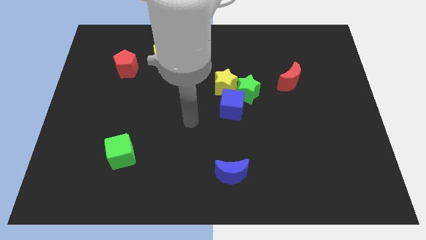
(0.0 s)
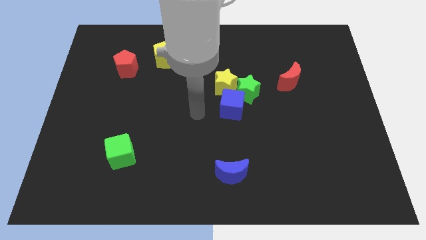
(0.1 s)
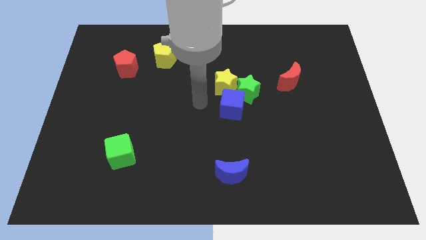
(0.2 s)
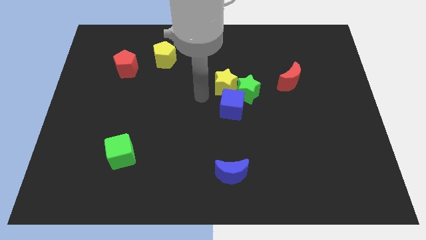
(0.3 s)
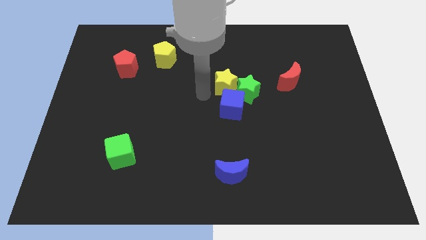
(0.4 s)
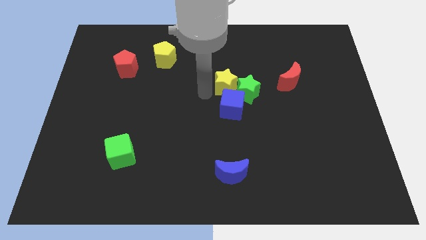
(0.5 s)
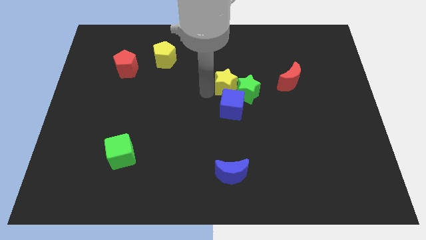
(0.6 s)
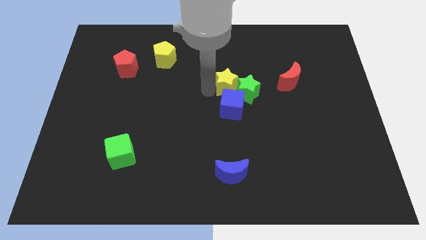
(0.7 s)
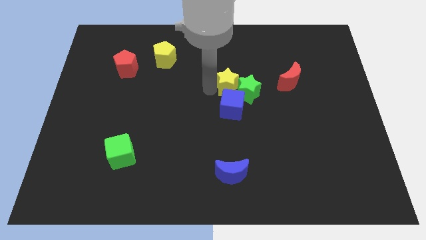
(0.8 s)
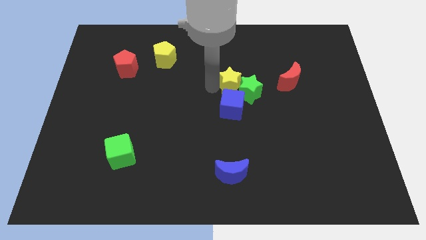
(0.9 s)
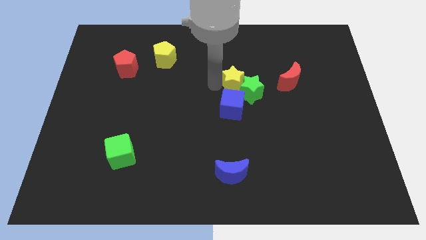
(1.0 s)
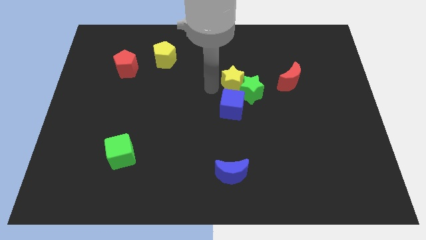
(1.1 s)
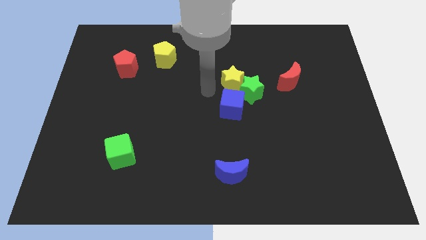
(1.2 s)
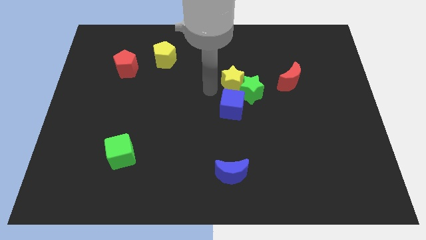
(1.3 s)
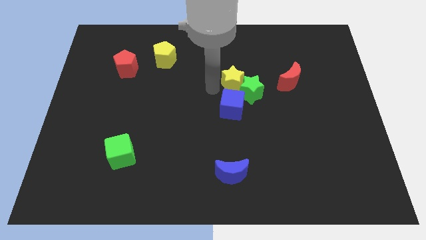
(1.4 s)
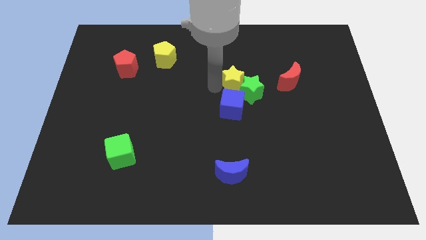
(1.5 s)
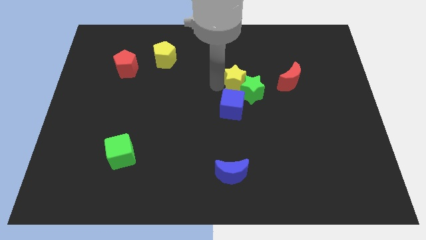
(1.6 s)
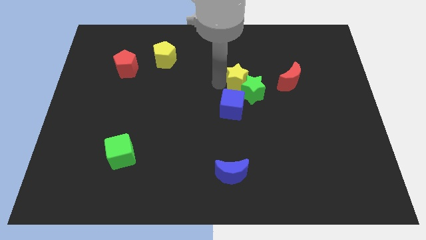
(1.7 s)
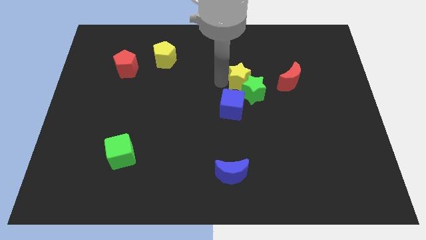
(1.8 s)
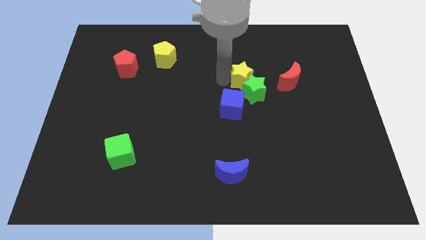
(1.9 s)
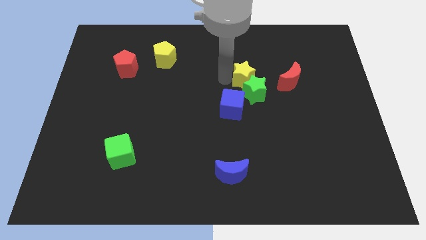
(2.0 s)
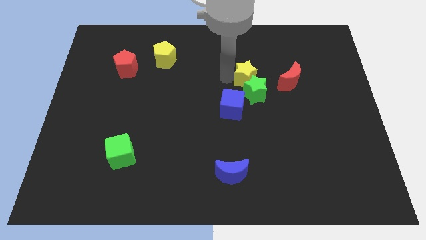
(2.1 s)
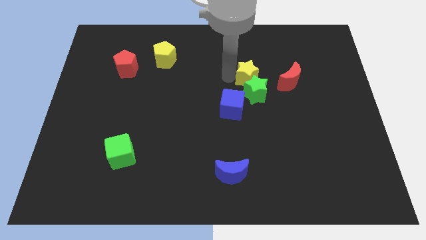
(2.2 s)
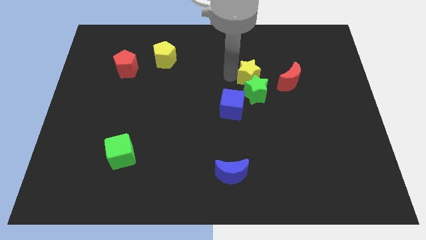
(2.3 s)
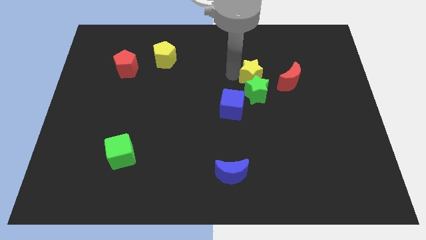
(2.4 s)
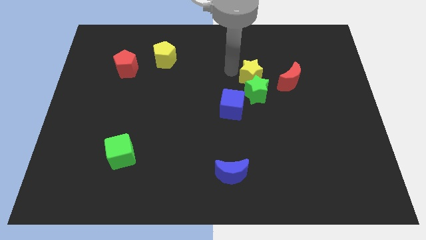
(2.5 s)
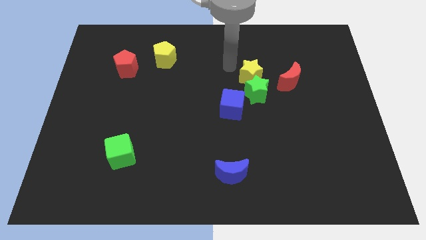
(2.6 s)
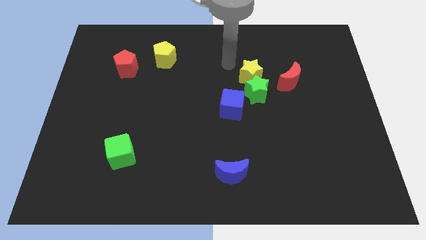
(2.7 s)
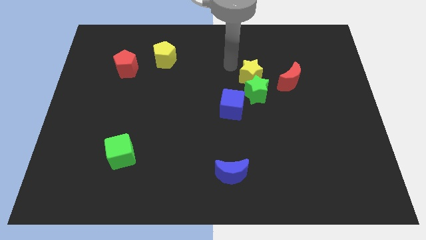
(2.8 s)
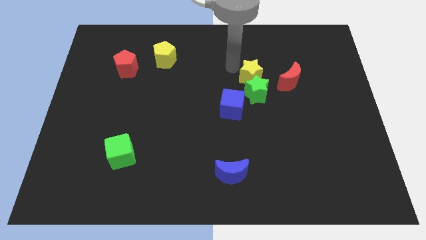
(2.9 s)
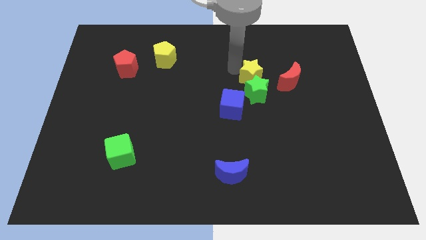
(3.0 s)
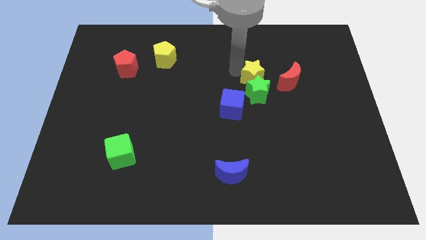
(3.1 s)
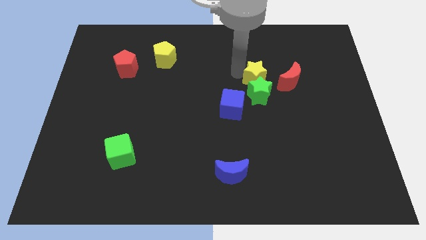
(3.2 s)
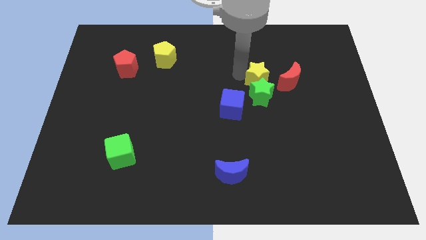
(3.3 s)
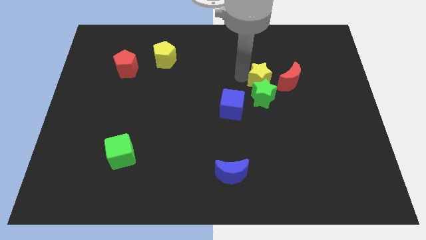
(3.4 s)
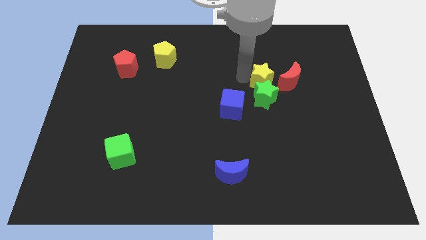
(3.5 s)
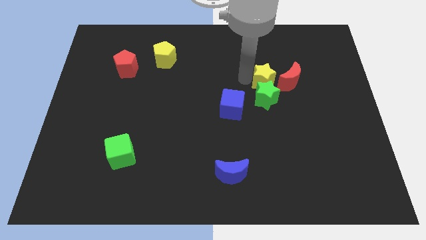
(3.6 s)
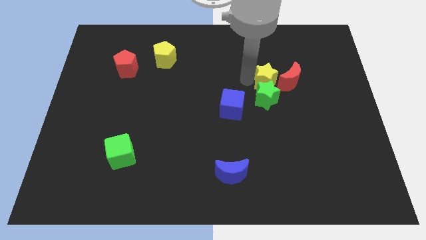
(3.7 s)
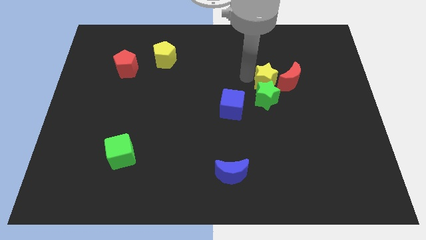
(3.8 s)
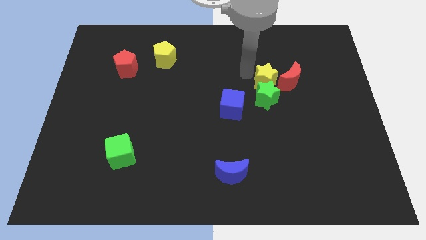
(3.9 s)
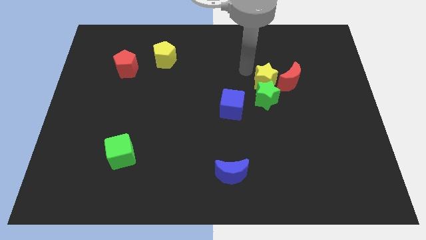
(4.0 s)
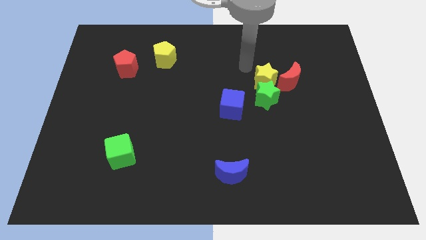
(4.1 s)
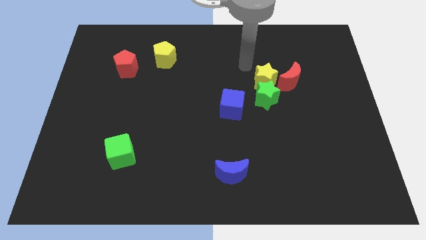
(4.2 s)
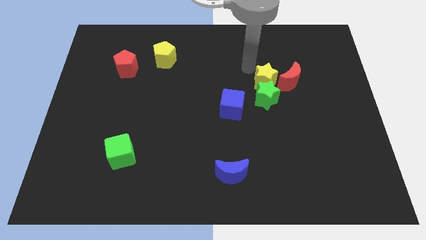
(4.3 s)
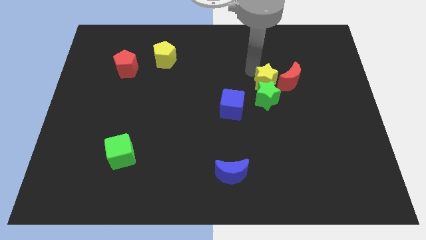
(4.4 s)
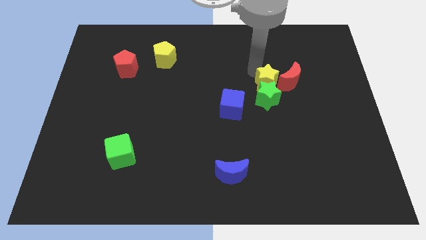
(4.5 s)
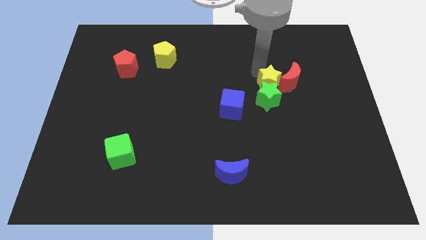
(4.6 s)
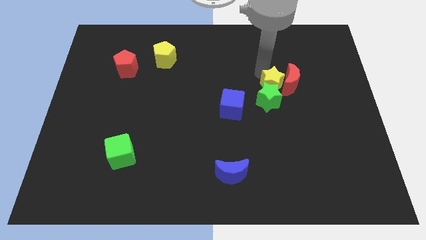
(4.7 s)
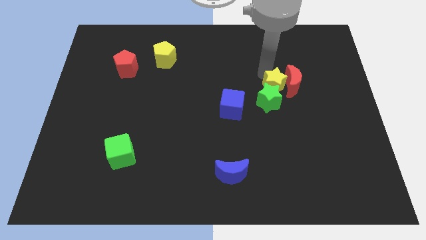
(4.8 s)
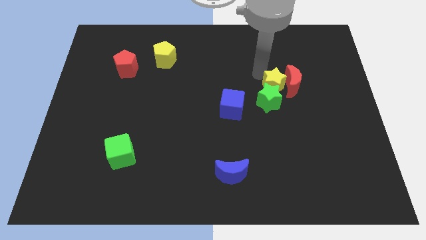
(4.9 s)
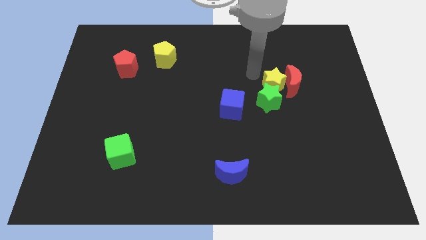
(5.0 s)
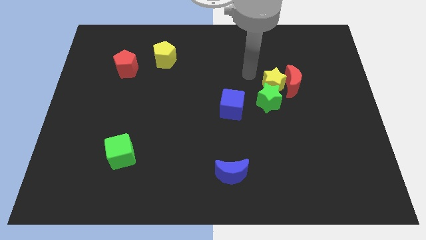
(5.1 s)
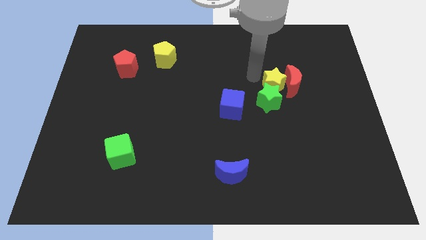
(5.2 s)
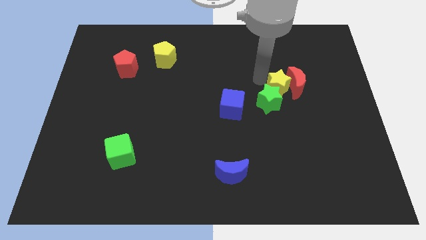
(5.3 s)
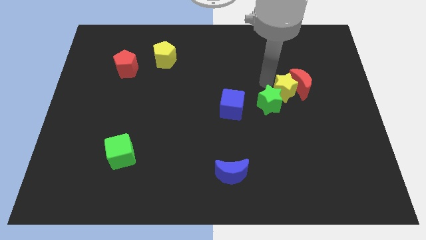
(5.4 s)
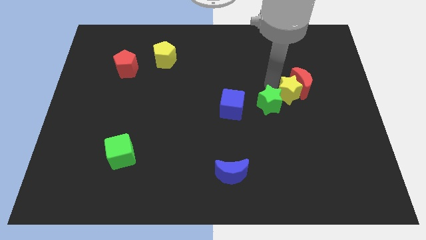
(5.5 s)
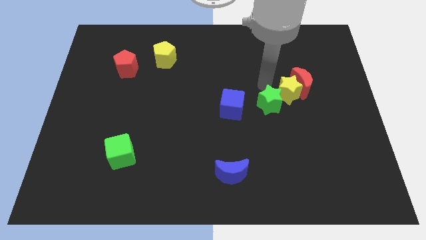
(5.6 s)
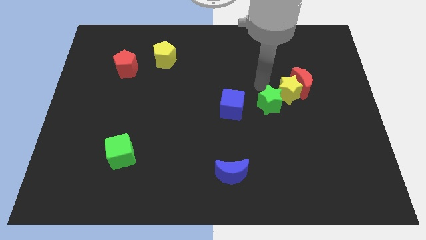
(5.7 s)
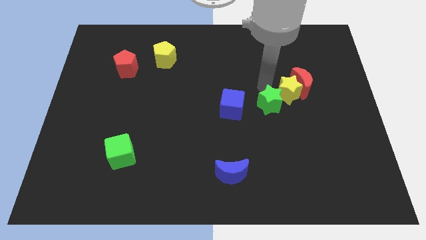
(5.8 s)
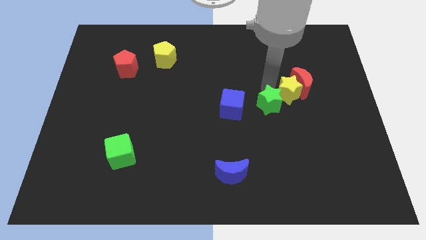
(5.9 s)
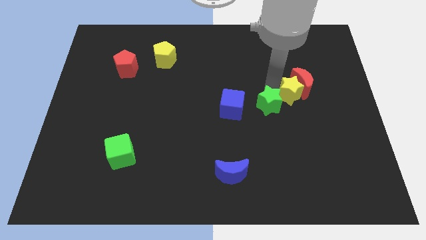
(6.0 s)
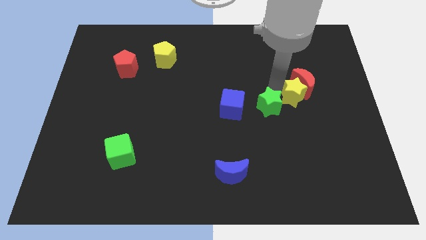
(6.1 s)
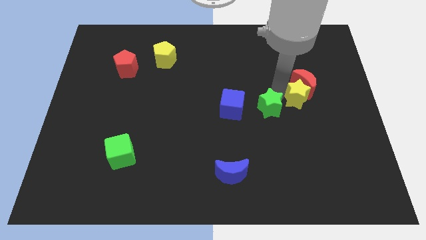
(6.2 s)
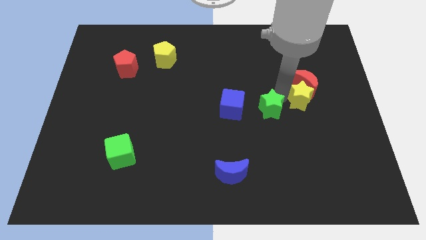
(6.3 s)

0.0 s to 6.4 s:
push the yellow star to the bottom right side of the red moon

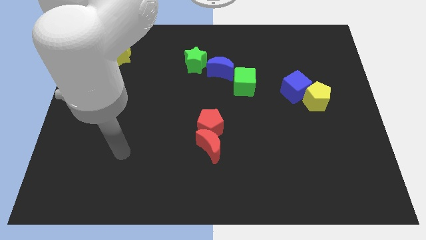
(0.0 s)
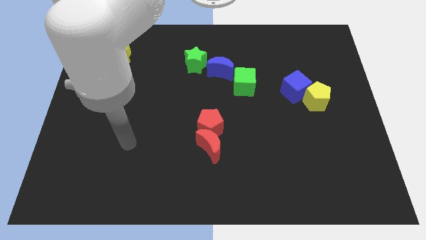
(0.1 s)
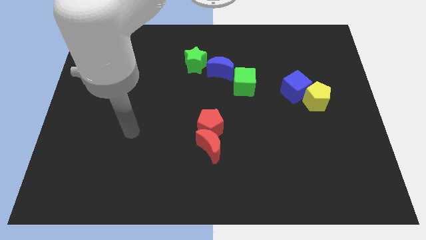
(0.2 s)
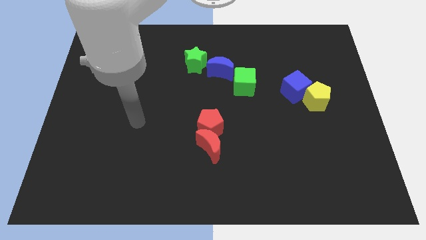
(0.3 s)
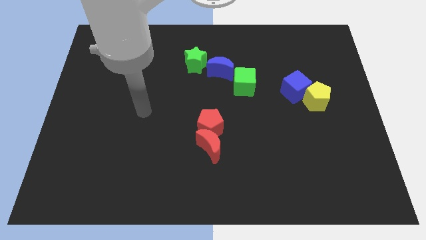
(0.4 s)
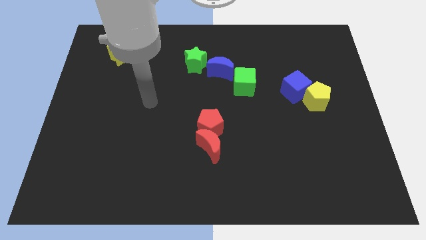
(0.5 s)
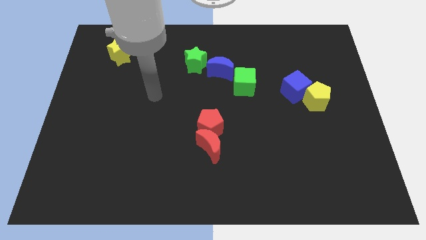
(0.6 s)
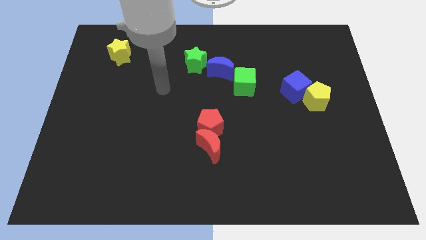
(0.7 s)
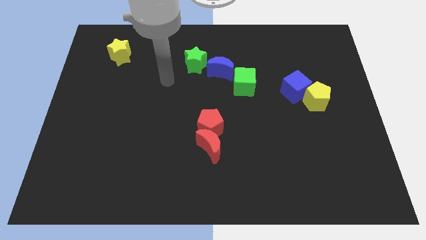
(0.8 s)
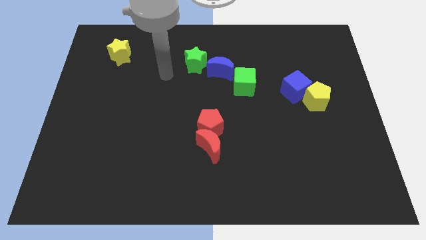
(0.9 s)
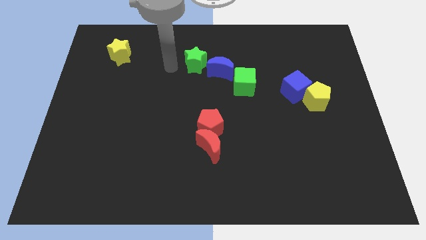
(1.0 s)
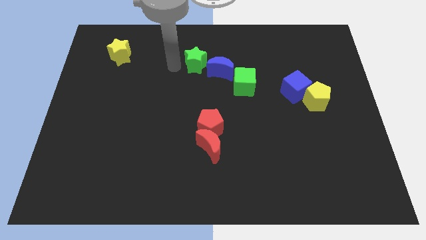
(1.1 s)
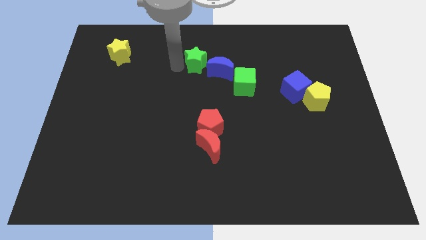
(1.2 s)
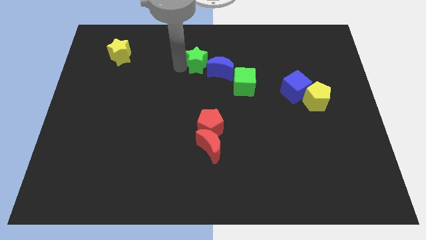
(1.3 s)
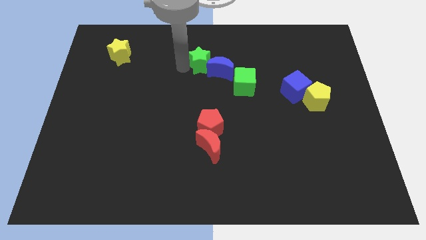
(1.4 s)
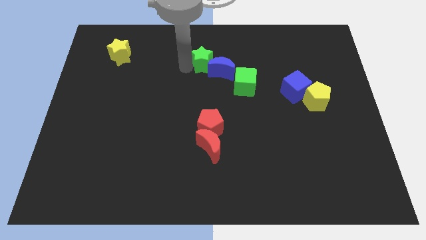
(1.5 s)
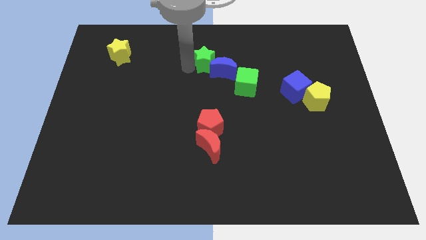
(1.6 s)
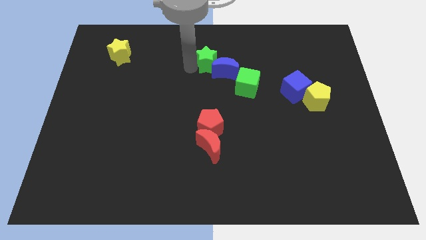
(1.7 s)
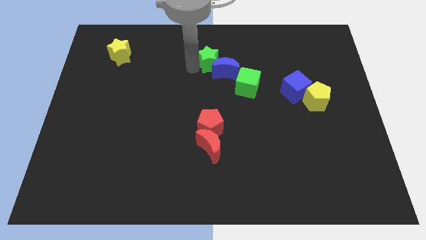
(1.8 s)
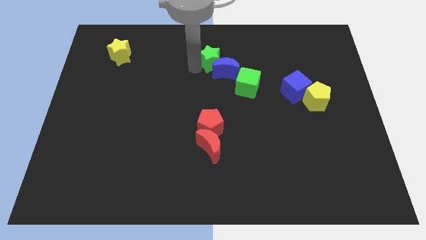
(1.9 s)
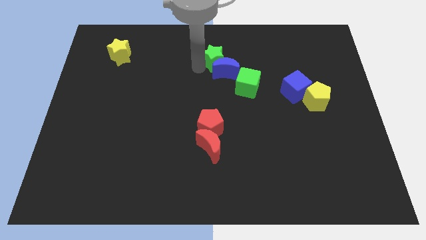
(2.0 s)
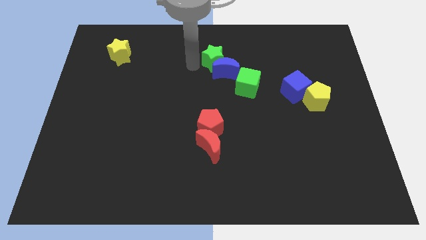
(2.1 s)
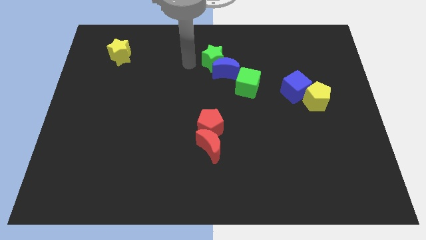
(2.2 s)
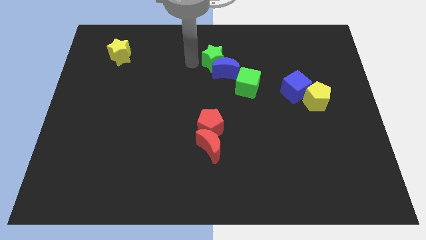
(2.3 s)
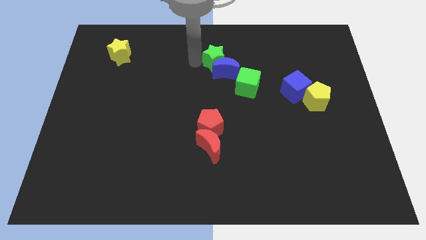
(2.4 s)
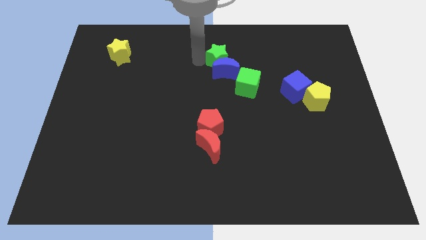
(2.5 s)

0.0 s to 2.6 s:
push the green star to the top right side of the blue moon
